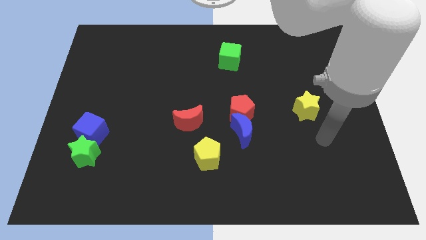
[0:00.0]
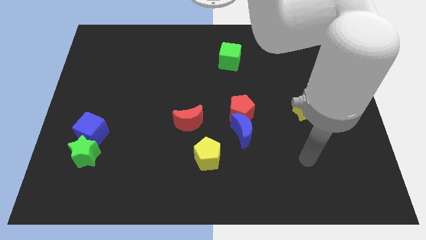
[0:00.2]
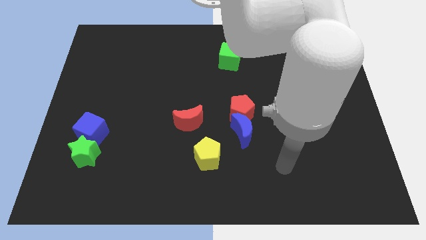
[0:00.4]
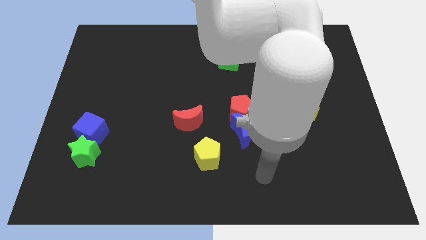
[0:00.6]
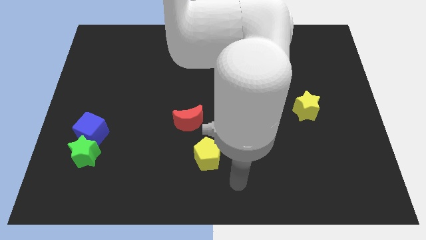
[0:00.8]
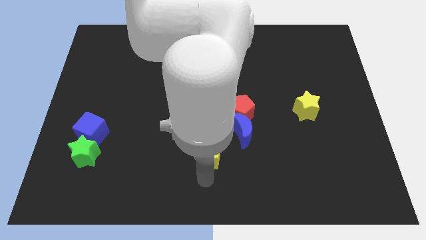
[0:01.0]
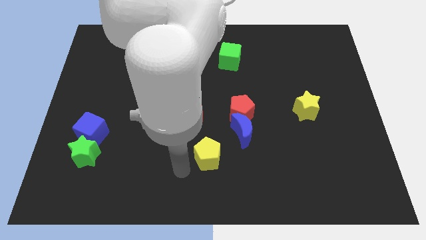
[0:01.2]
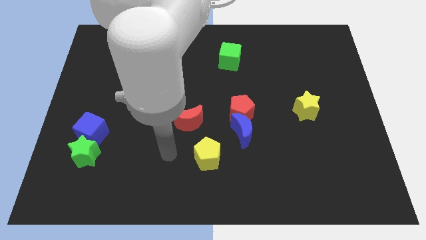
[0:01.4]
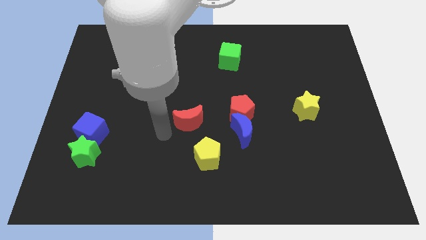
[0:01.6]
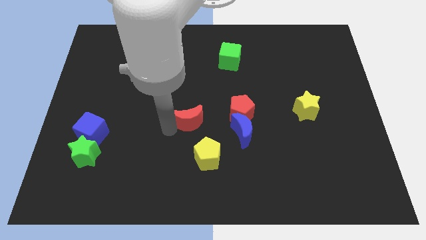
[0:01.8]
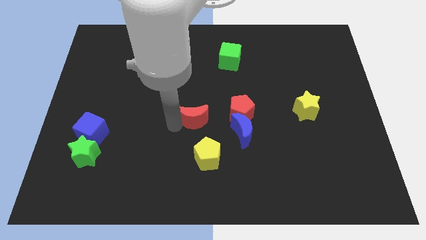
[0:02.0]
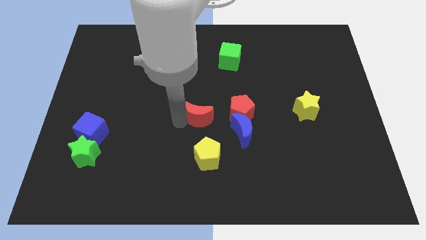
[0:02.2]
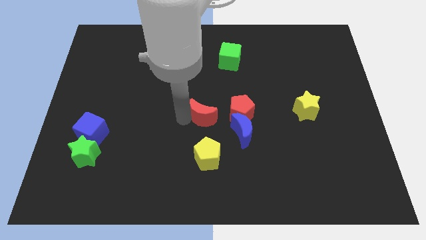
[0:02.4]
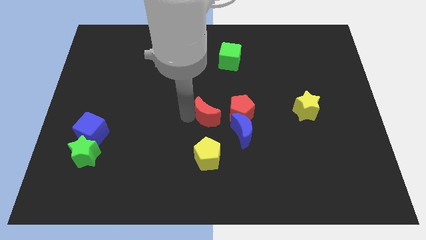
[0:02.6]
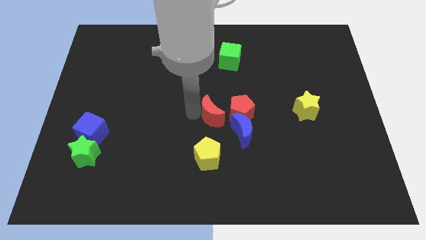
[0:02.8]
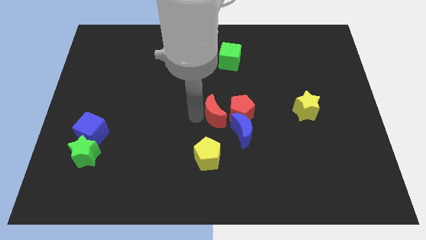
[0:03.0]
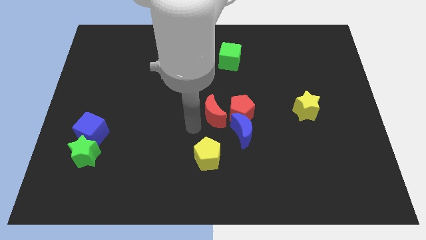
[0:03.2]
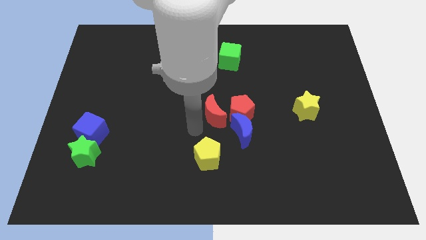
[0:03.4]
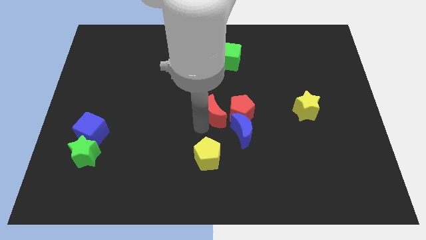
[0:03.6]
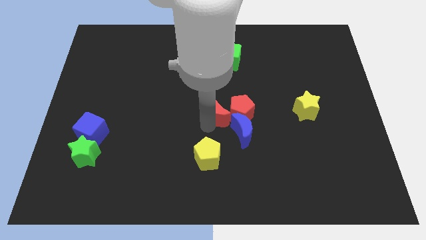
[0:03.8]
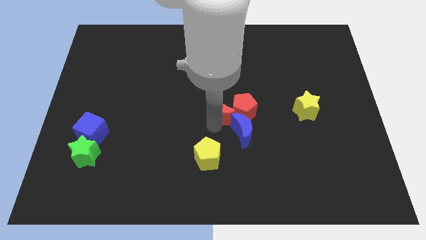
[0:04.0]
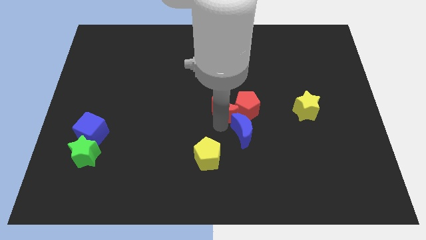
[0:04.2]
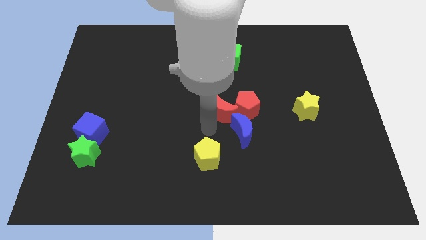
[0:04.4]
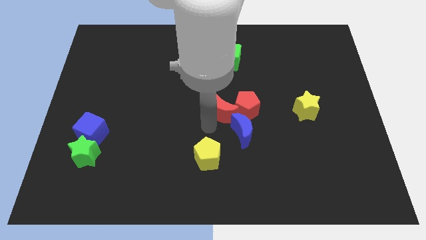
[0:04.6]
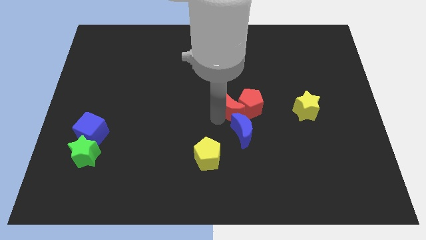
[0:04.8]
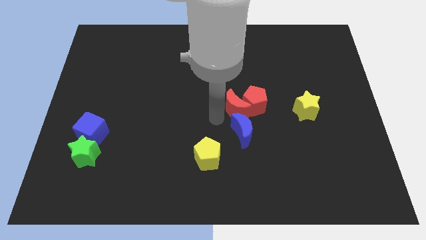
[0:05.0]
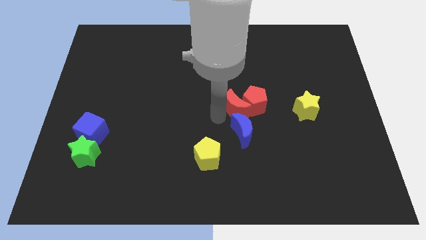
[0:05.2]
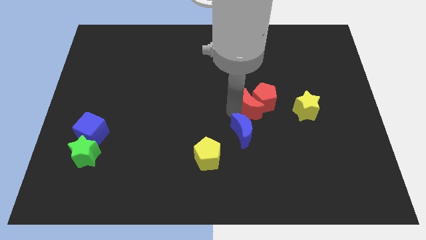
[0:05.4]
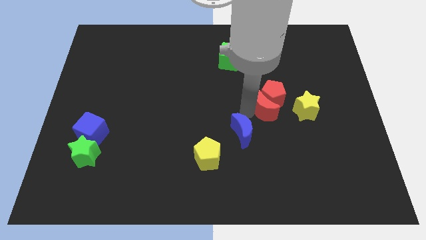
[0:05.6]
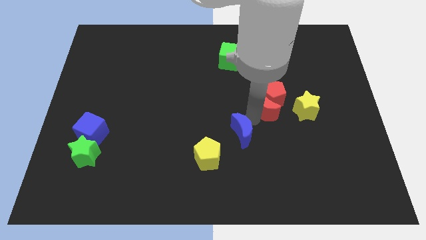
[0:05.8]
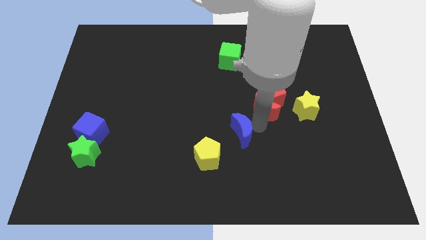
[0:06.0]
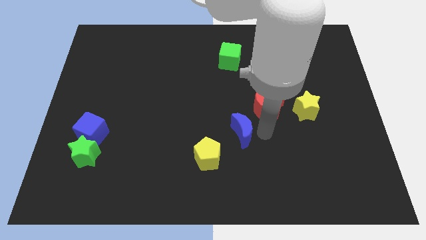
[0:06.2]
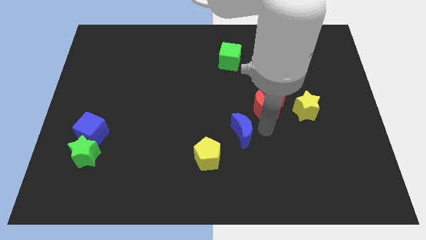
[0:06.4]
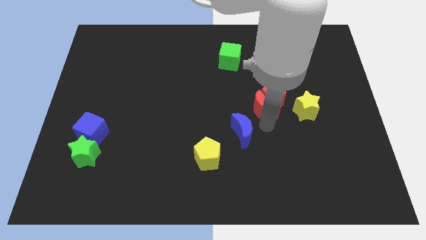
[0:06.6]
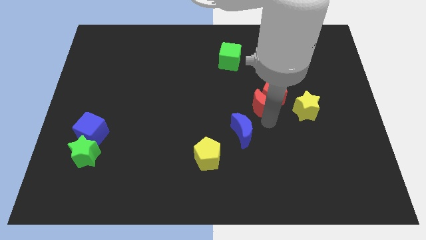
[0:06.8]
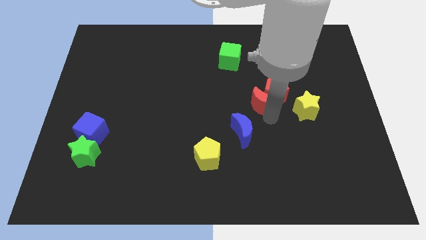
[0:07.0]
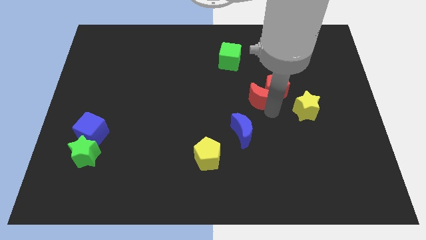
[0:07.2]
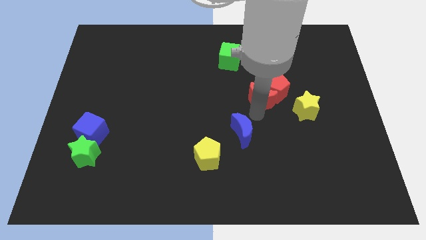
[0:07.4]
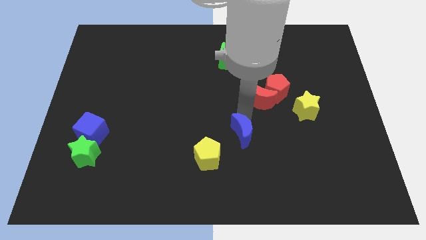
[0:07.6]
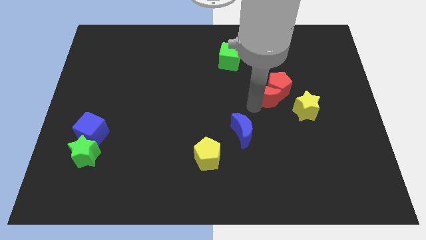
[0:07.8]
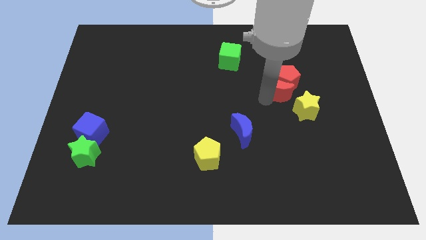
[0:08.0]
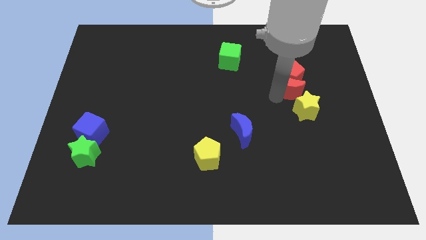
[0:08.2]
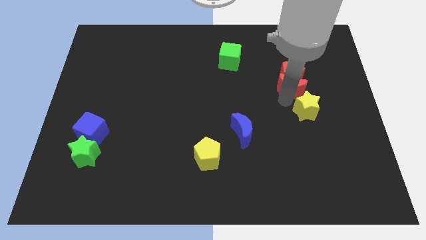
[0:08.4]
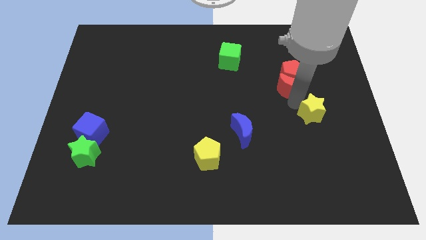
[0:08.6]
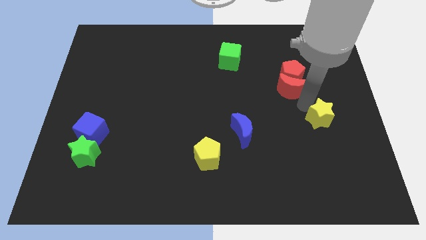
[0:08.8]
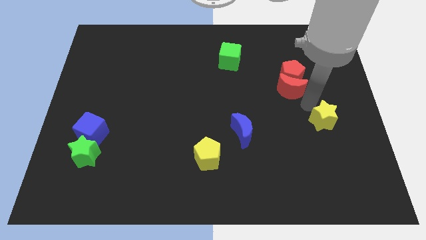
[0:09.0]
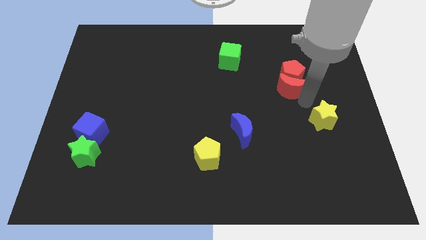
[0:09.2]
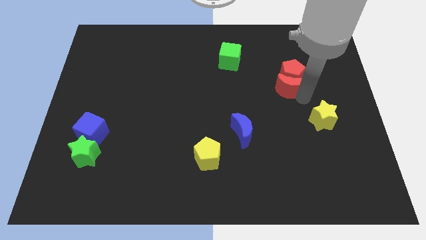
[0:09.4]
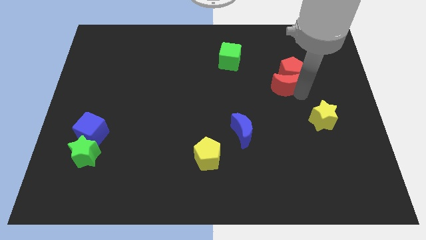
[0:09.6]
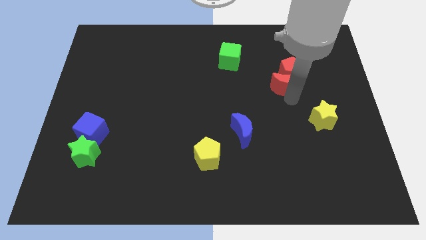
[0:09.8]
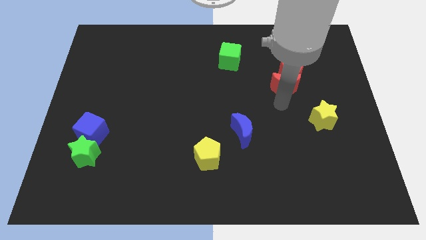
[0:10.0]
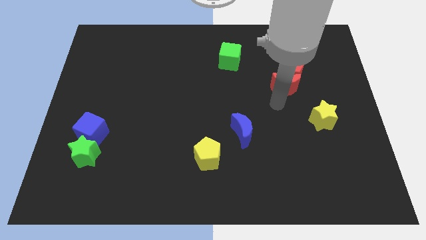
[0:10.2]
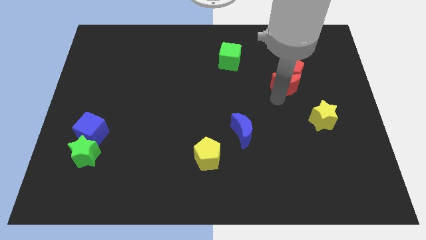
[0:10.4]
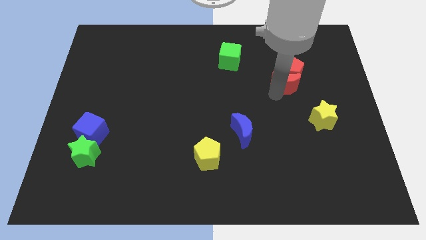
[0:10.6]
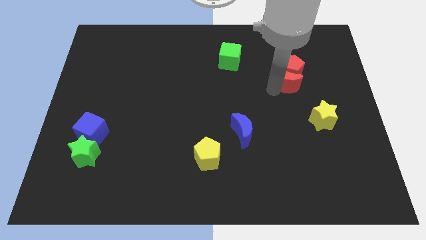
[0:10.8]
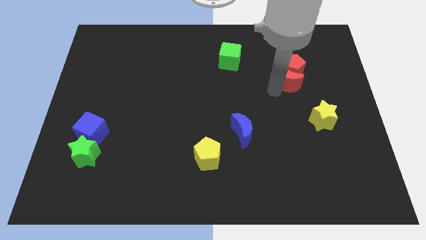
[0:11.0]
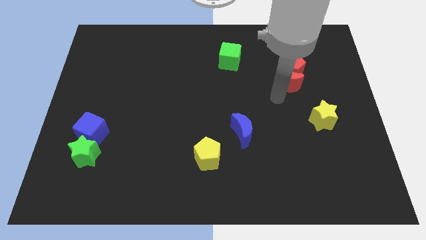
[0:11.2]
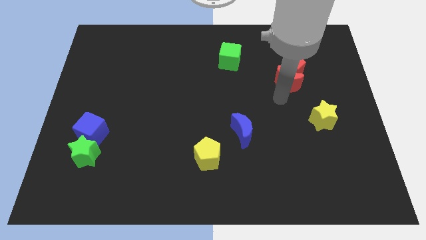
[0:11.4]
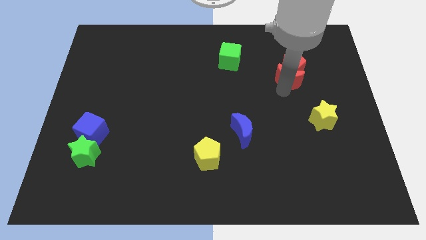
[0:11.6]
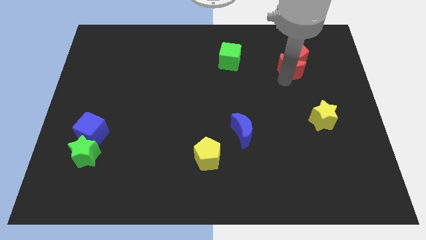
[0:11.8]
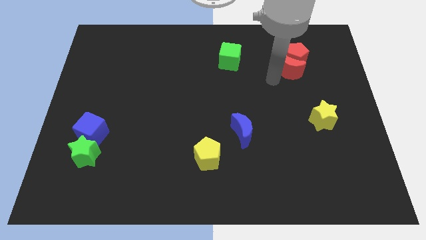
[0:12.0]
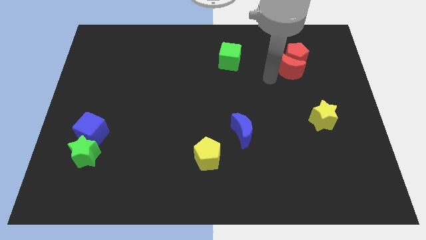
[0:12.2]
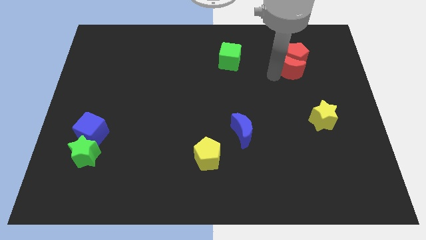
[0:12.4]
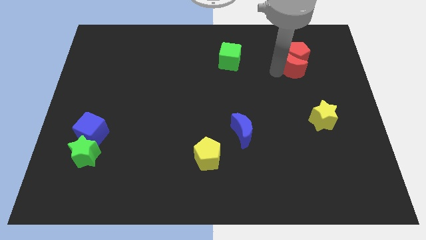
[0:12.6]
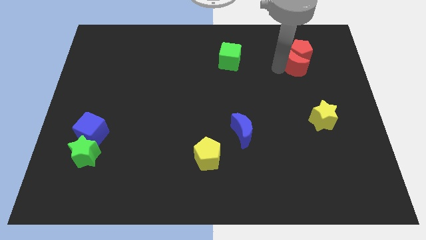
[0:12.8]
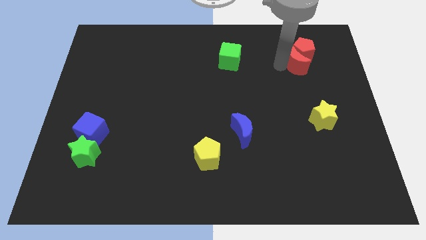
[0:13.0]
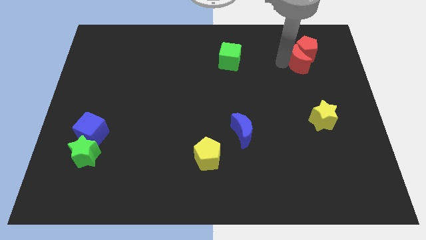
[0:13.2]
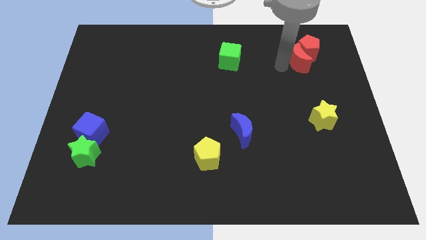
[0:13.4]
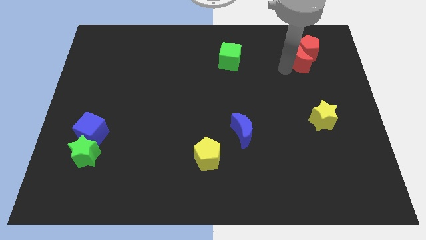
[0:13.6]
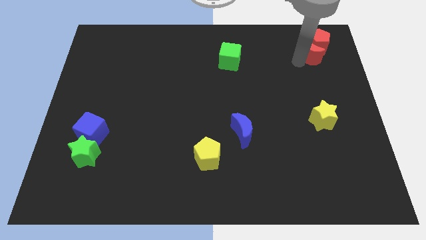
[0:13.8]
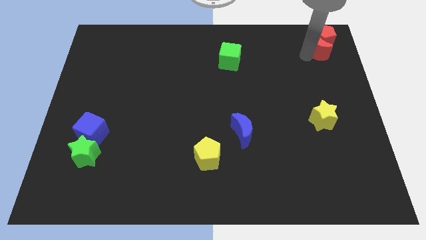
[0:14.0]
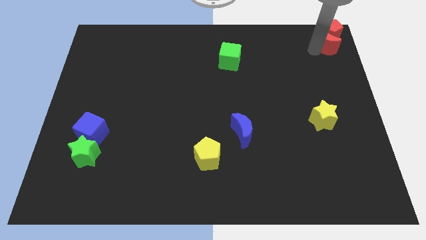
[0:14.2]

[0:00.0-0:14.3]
push the red moon to the top right corner
